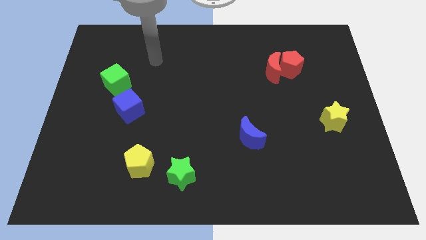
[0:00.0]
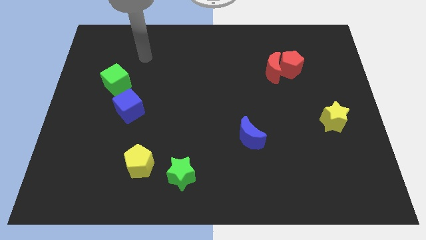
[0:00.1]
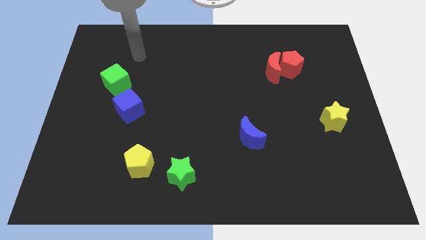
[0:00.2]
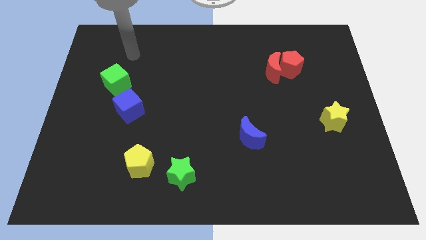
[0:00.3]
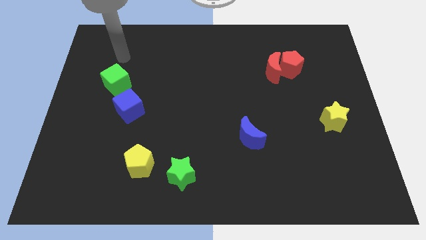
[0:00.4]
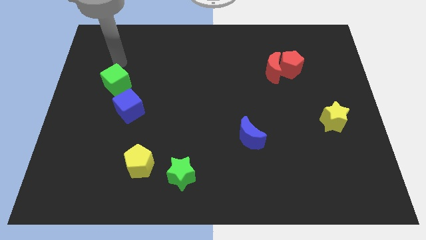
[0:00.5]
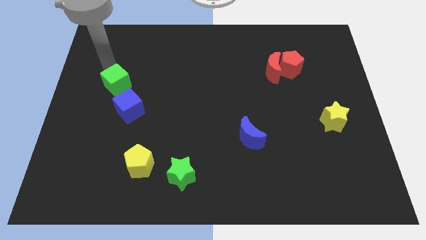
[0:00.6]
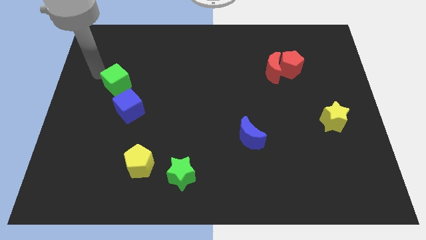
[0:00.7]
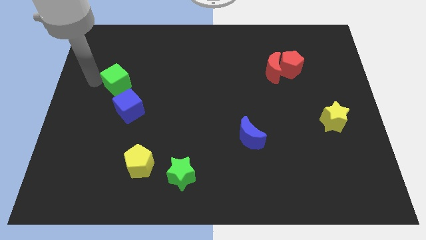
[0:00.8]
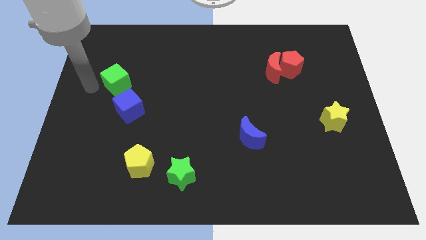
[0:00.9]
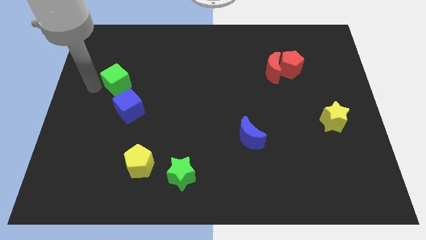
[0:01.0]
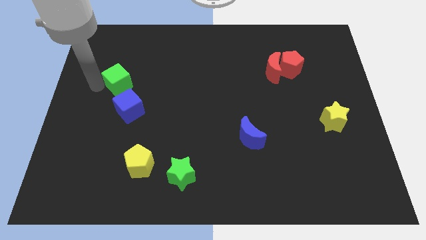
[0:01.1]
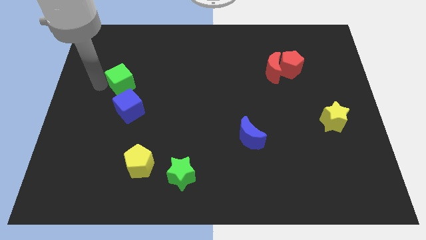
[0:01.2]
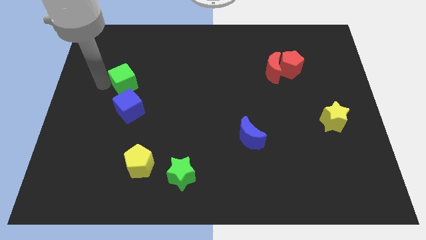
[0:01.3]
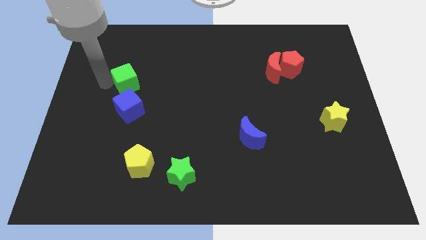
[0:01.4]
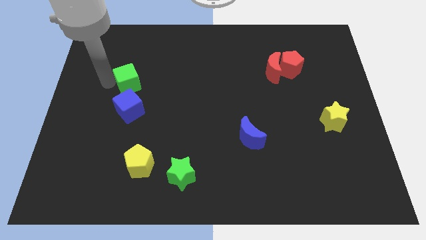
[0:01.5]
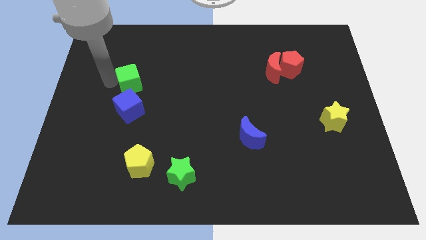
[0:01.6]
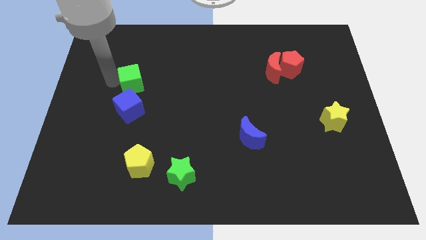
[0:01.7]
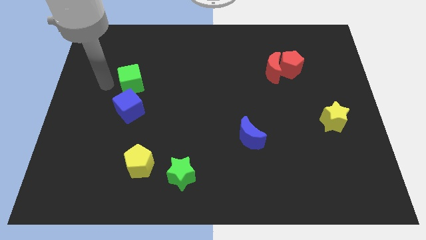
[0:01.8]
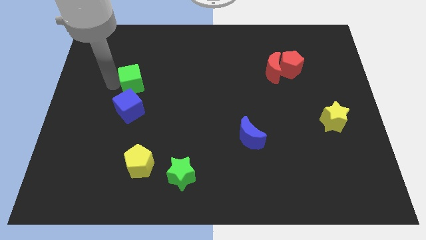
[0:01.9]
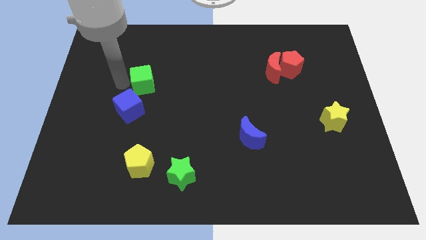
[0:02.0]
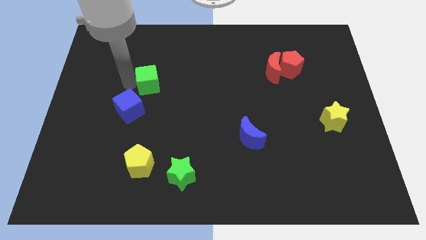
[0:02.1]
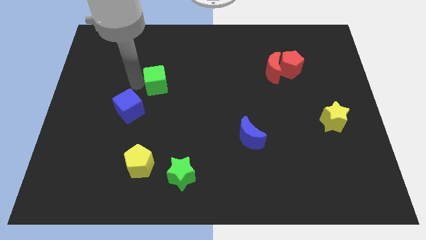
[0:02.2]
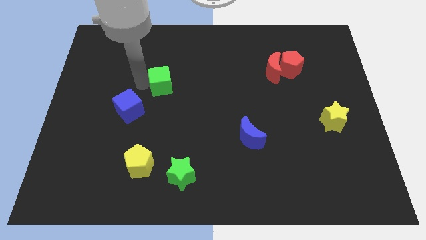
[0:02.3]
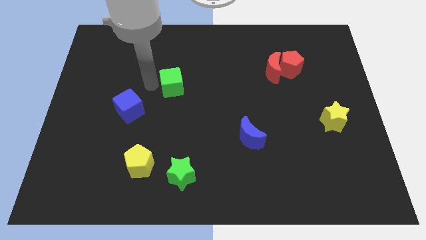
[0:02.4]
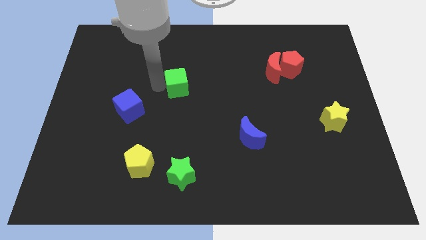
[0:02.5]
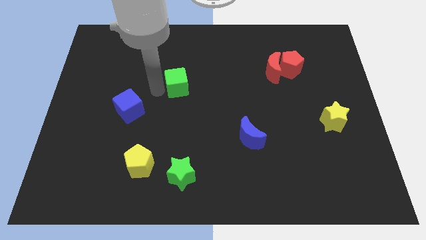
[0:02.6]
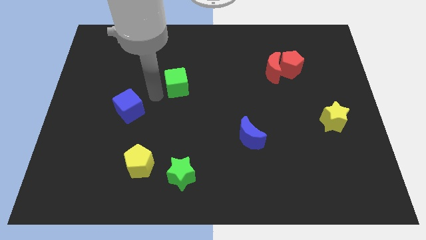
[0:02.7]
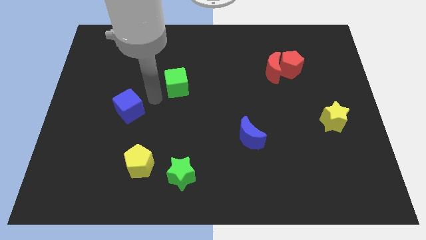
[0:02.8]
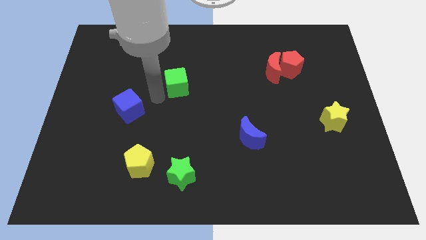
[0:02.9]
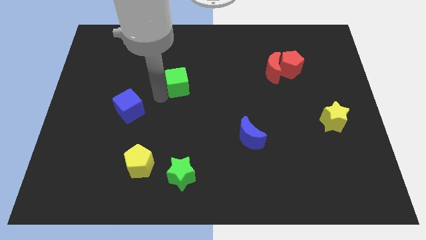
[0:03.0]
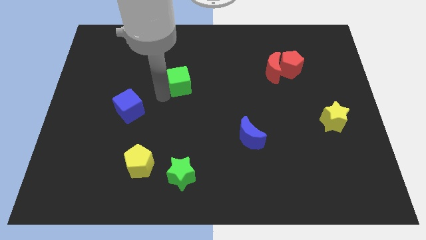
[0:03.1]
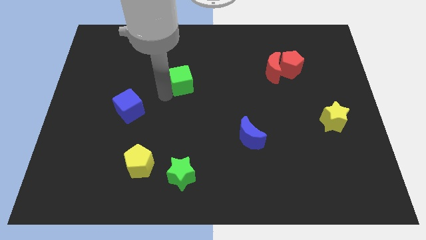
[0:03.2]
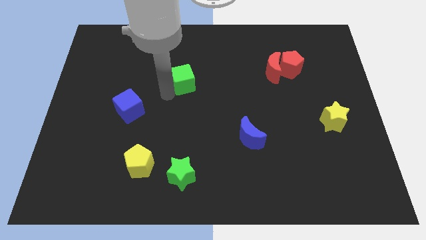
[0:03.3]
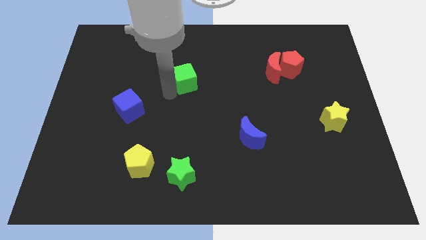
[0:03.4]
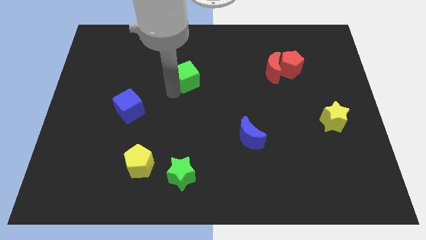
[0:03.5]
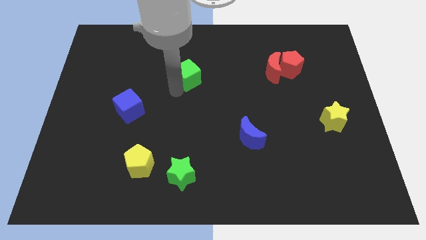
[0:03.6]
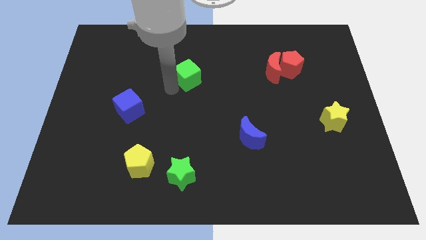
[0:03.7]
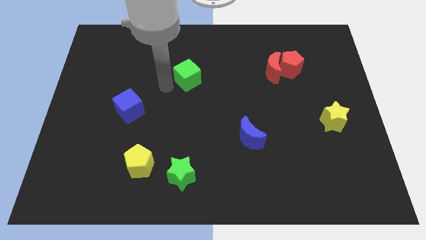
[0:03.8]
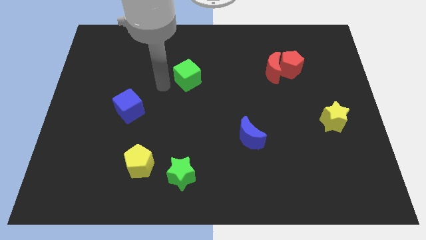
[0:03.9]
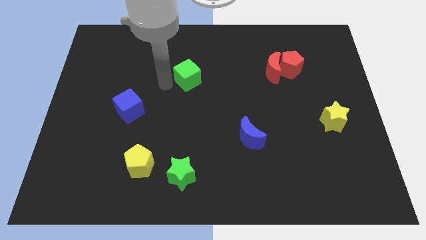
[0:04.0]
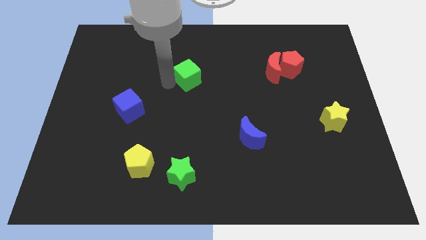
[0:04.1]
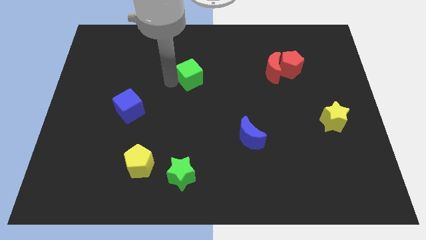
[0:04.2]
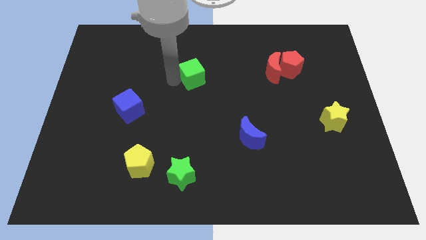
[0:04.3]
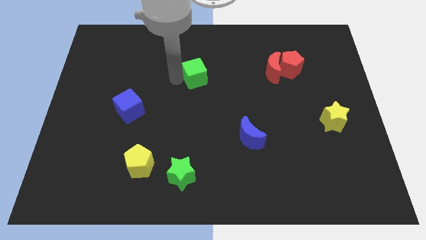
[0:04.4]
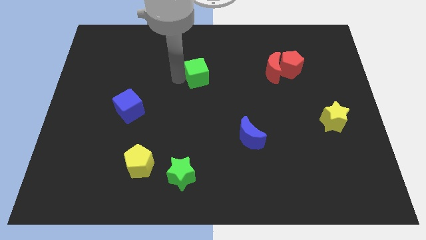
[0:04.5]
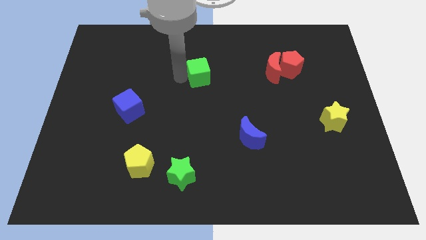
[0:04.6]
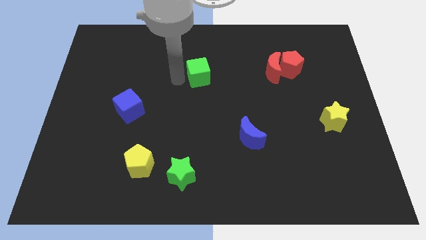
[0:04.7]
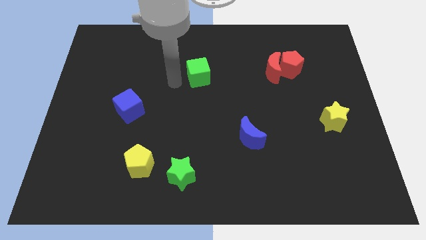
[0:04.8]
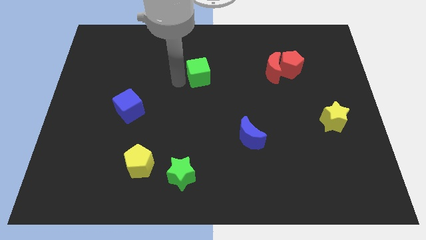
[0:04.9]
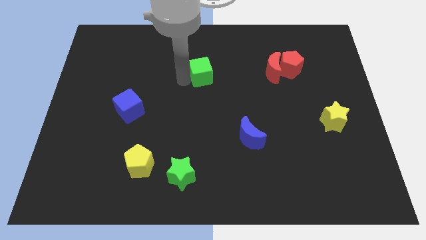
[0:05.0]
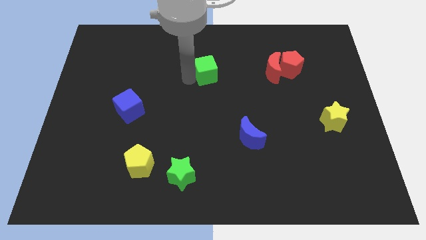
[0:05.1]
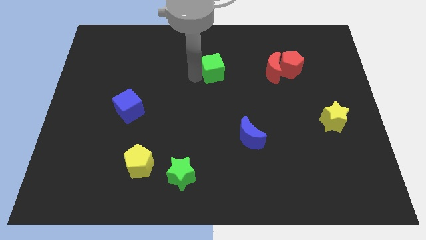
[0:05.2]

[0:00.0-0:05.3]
move the green cube to the left side of the red moon

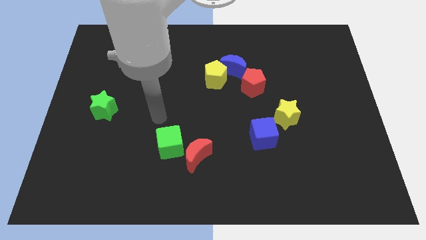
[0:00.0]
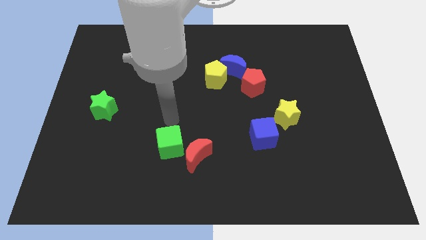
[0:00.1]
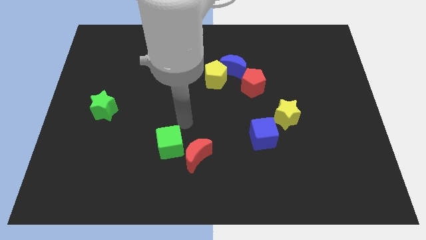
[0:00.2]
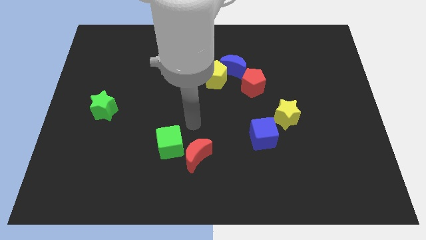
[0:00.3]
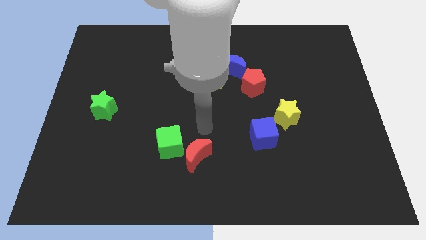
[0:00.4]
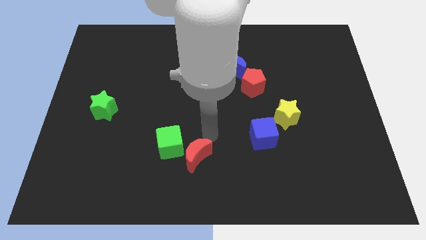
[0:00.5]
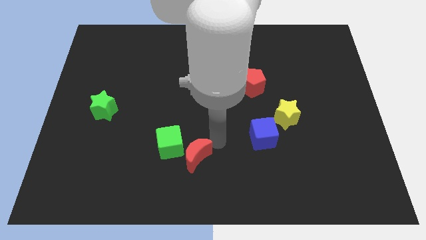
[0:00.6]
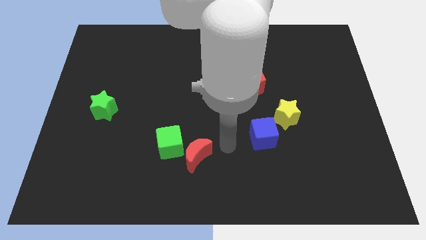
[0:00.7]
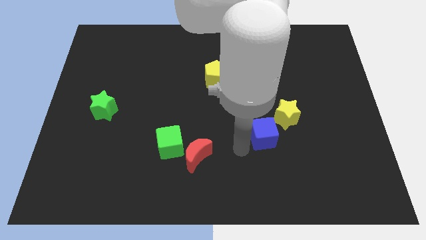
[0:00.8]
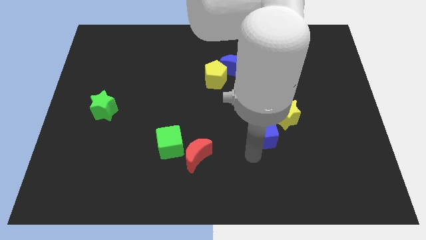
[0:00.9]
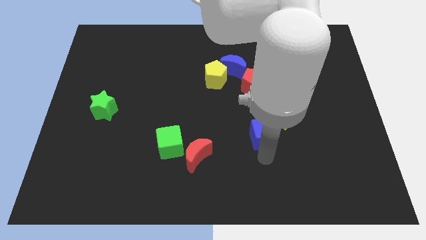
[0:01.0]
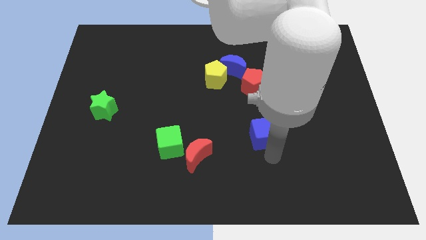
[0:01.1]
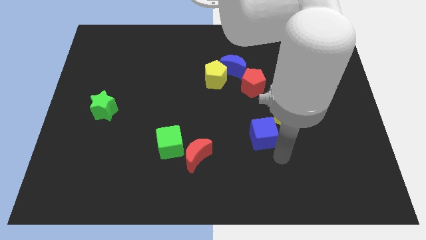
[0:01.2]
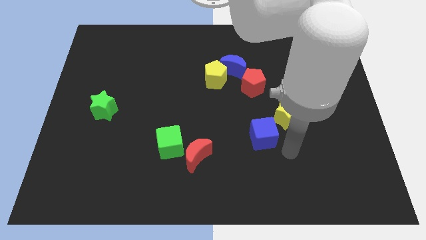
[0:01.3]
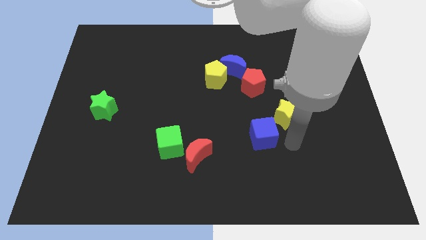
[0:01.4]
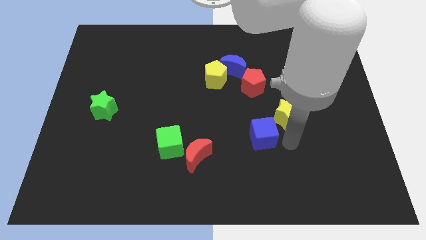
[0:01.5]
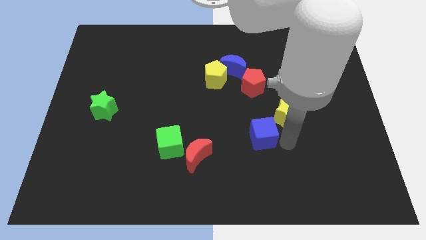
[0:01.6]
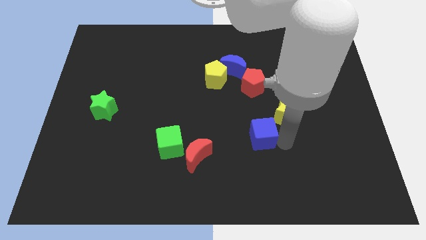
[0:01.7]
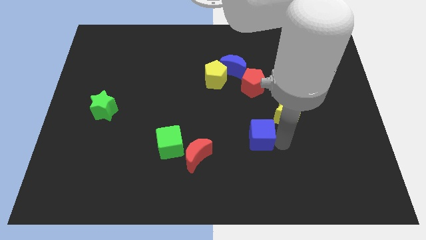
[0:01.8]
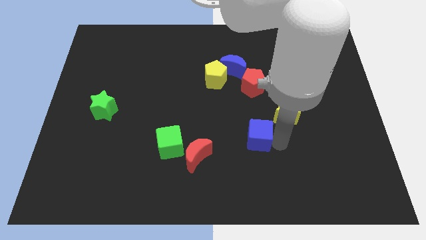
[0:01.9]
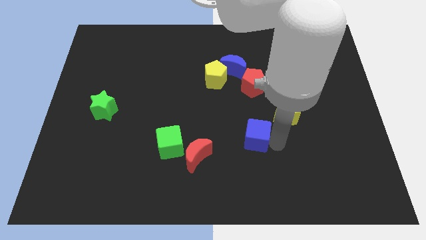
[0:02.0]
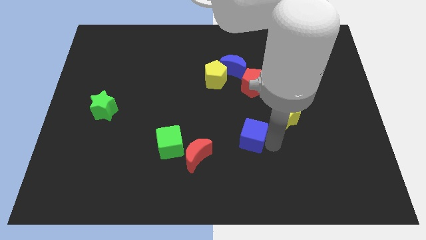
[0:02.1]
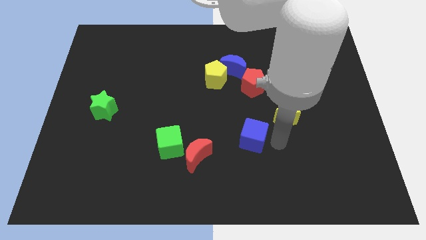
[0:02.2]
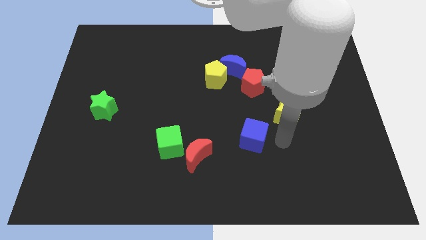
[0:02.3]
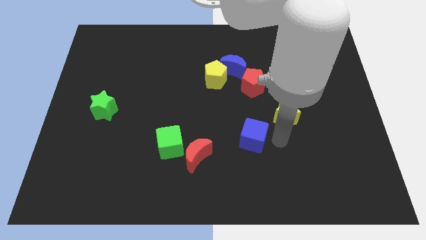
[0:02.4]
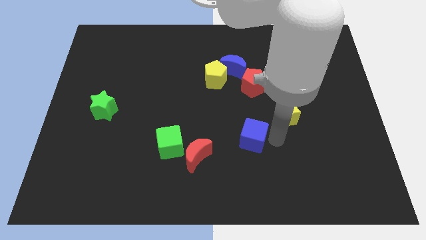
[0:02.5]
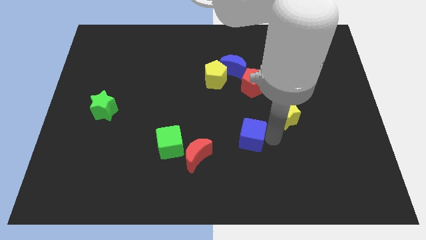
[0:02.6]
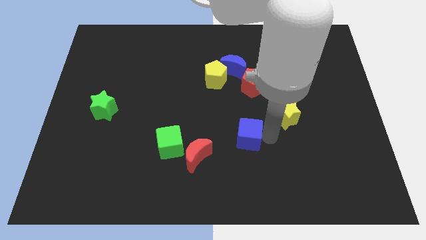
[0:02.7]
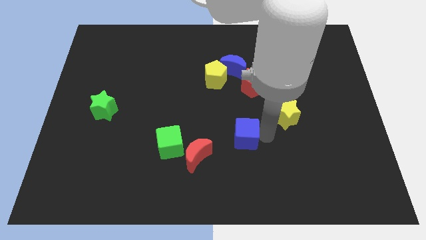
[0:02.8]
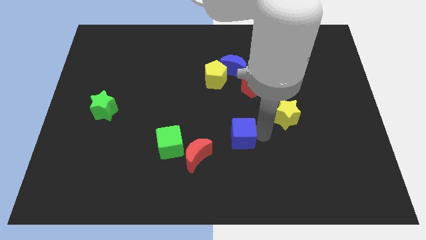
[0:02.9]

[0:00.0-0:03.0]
move the blue cube to the top right side of the red moon
